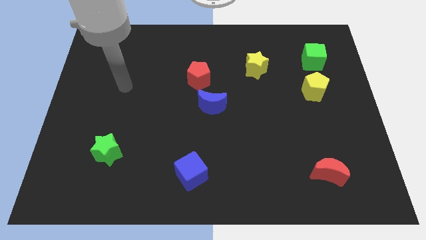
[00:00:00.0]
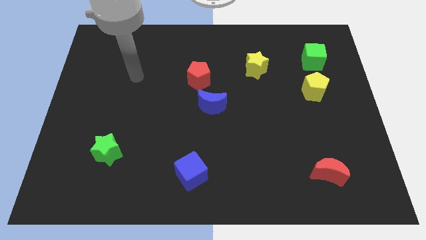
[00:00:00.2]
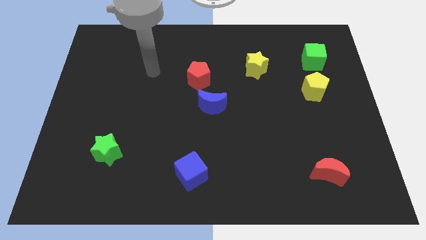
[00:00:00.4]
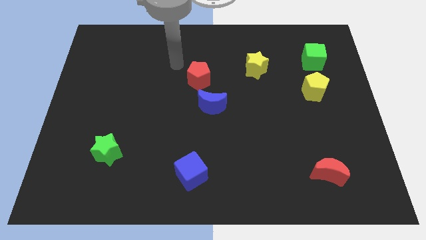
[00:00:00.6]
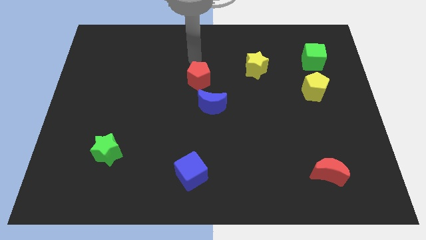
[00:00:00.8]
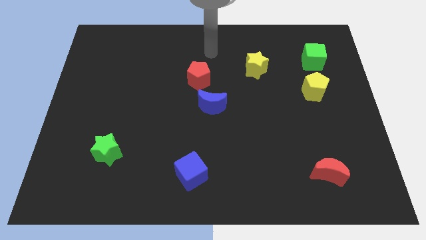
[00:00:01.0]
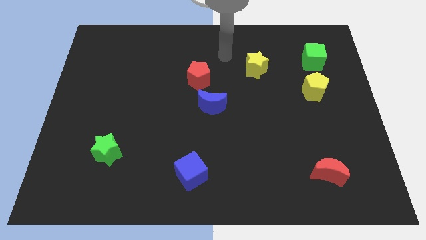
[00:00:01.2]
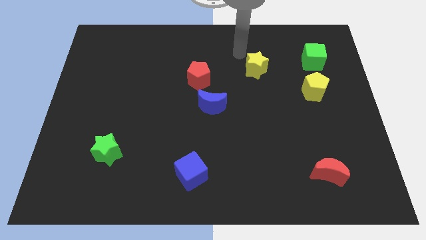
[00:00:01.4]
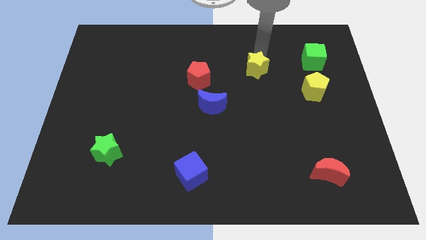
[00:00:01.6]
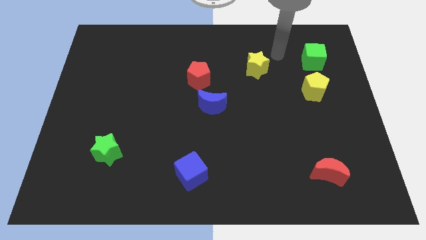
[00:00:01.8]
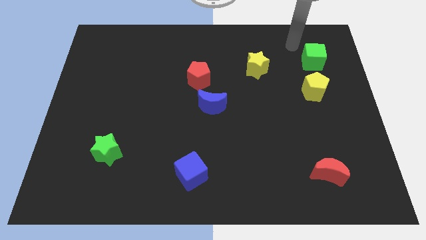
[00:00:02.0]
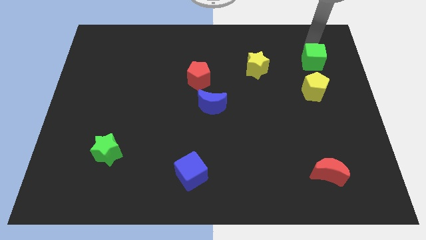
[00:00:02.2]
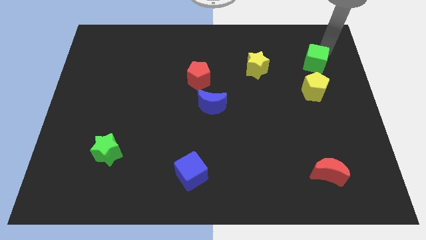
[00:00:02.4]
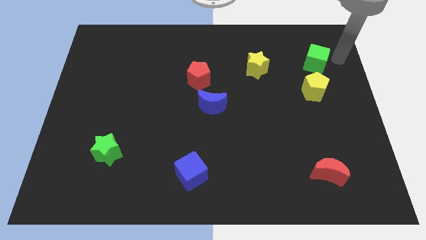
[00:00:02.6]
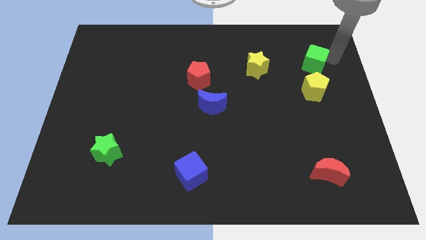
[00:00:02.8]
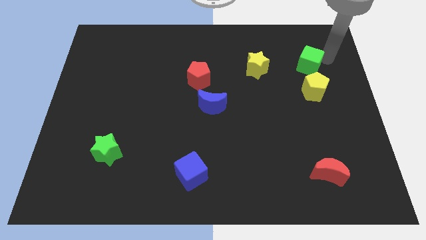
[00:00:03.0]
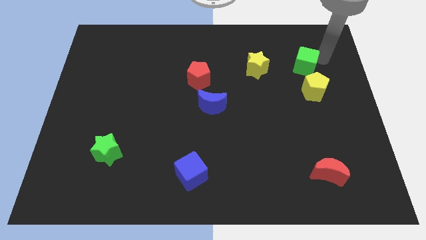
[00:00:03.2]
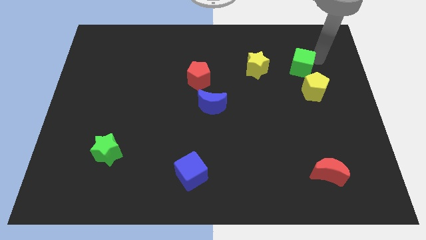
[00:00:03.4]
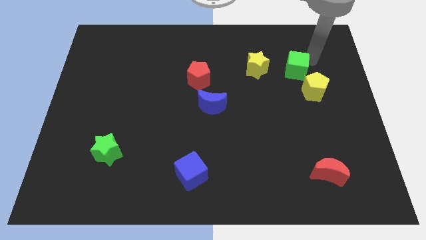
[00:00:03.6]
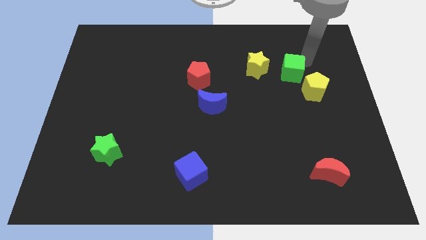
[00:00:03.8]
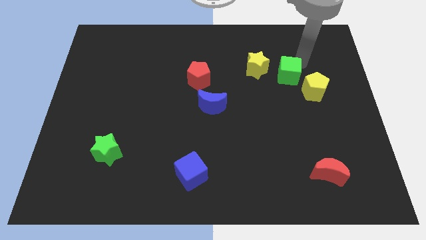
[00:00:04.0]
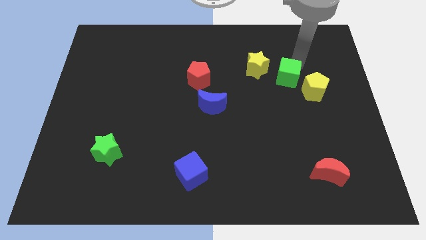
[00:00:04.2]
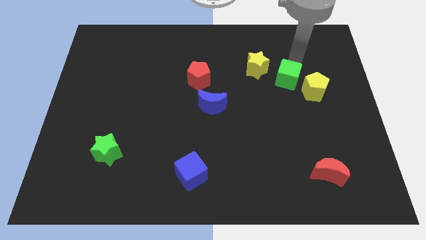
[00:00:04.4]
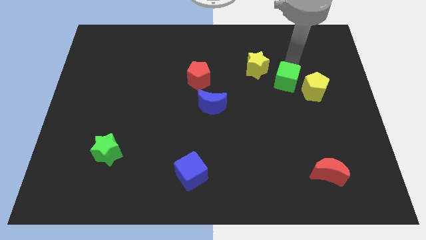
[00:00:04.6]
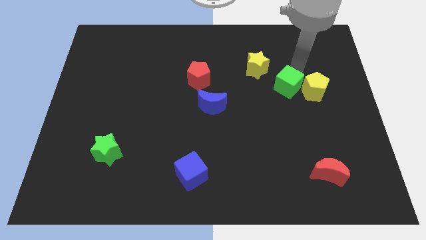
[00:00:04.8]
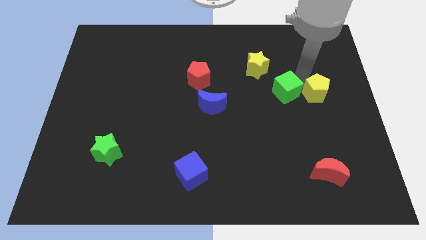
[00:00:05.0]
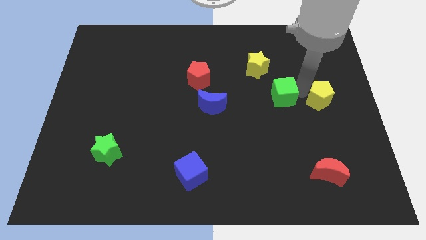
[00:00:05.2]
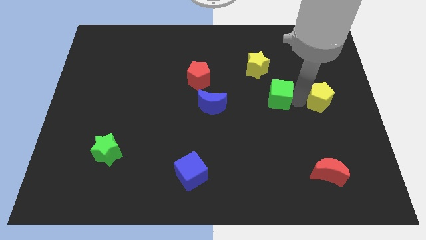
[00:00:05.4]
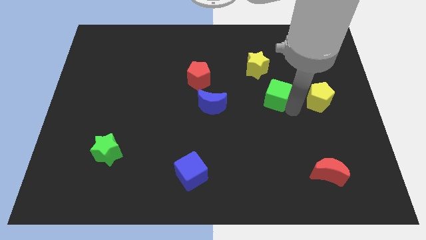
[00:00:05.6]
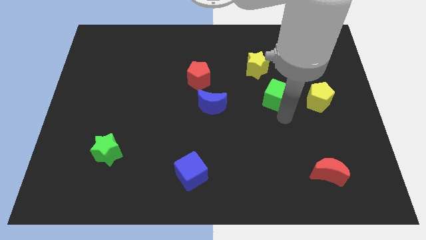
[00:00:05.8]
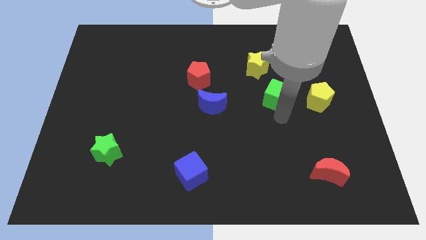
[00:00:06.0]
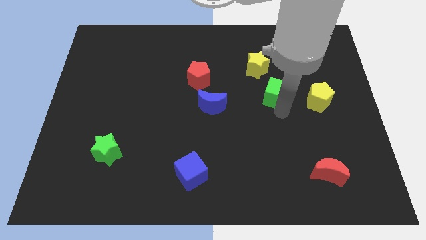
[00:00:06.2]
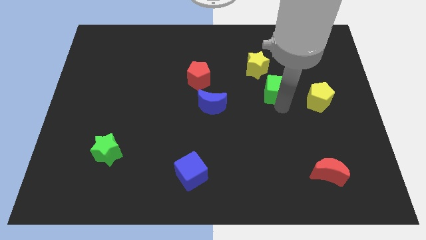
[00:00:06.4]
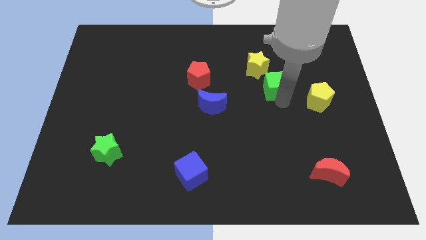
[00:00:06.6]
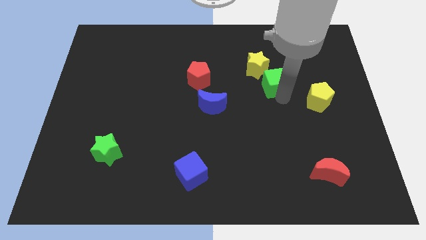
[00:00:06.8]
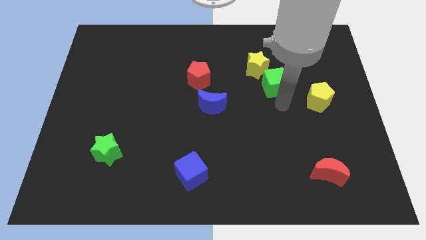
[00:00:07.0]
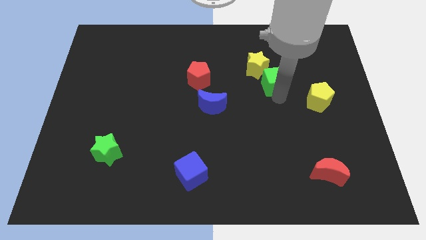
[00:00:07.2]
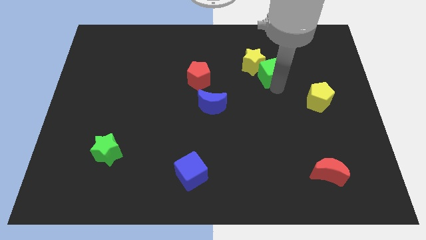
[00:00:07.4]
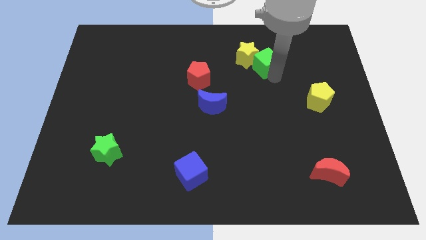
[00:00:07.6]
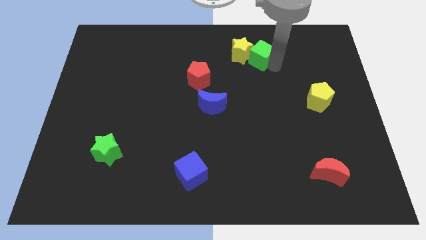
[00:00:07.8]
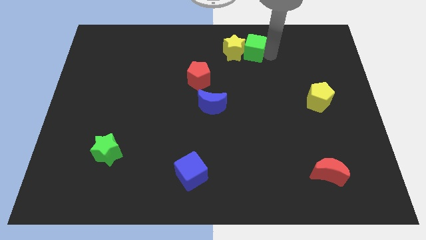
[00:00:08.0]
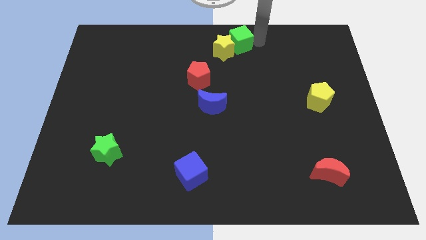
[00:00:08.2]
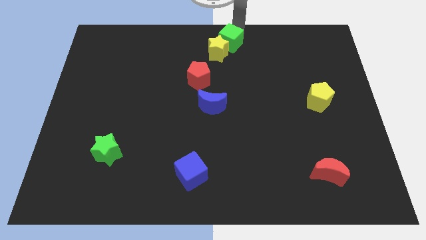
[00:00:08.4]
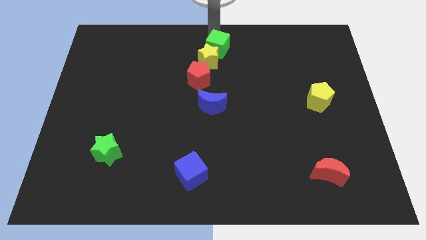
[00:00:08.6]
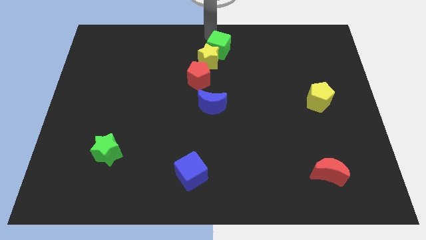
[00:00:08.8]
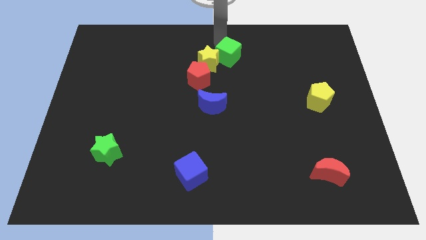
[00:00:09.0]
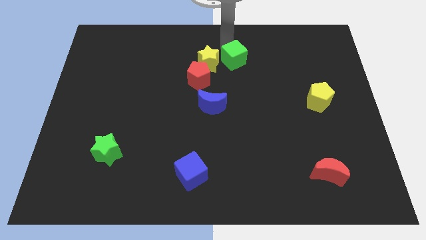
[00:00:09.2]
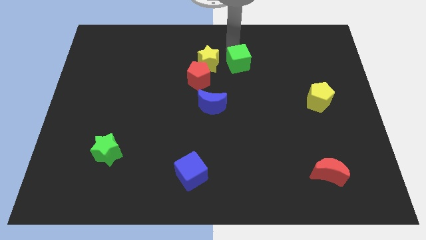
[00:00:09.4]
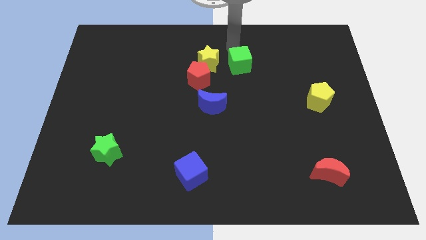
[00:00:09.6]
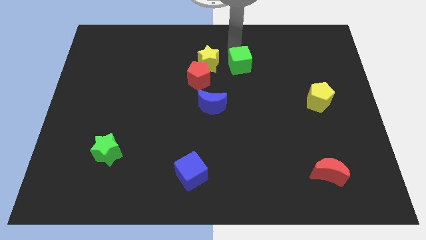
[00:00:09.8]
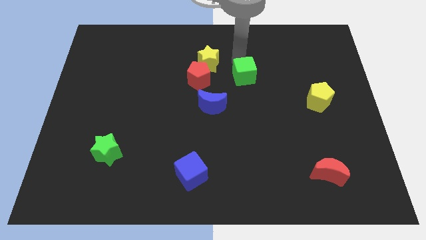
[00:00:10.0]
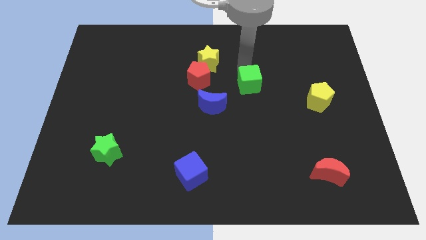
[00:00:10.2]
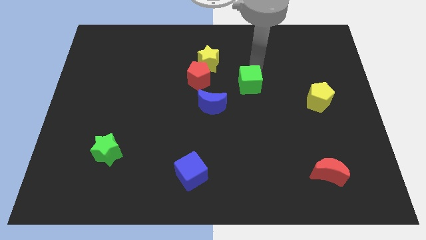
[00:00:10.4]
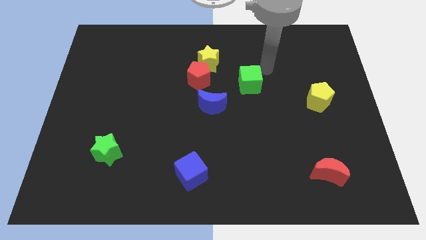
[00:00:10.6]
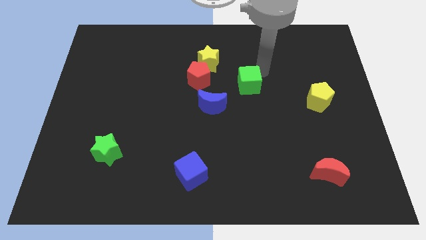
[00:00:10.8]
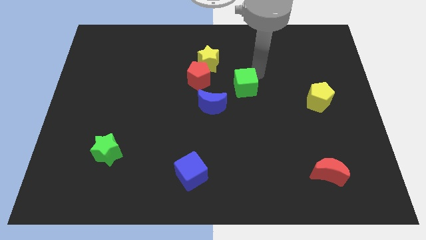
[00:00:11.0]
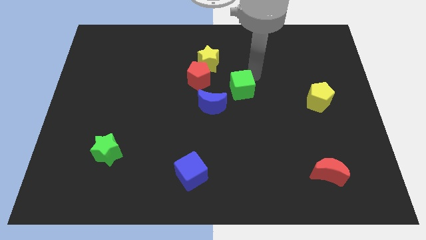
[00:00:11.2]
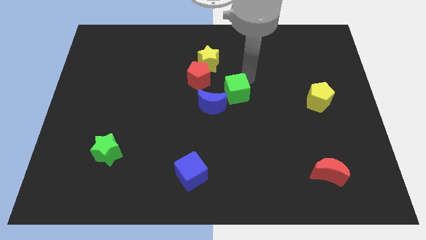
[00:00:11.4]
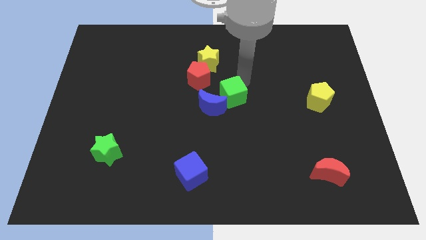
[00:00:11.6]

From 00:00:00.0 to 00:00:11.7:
move the green cube close to the blue moon
